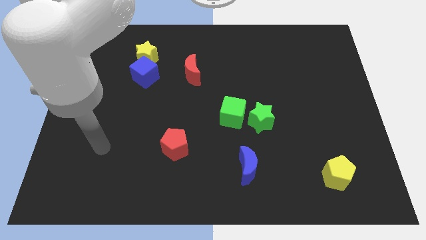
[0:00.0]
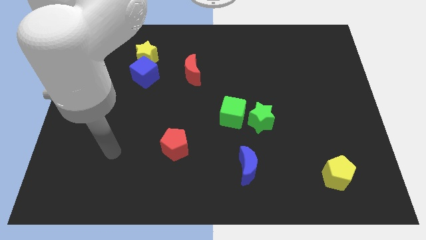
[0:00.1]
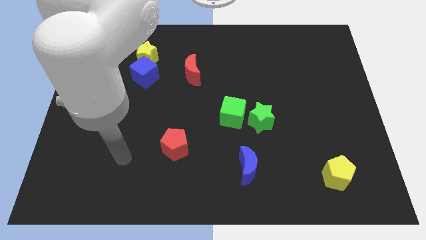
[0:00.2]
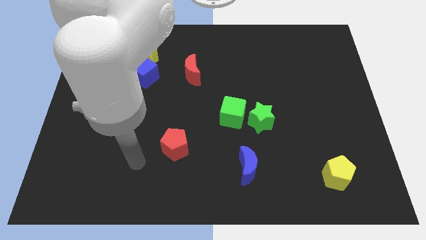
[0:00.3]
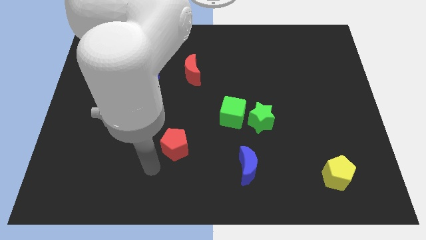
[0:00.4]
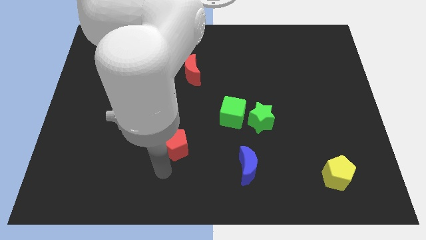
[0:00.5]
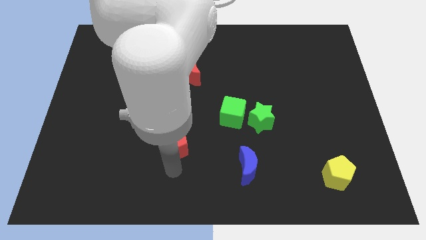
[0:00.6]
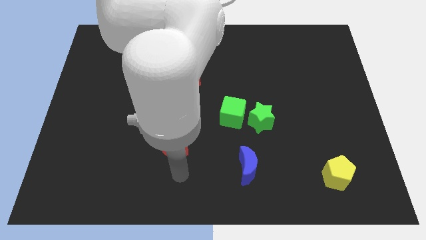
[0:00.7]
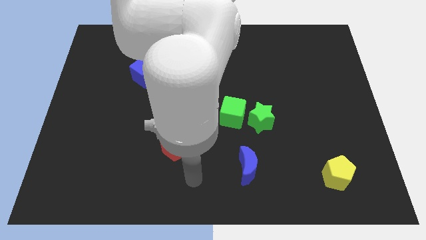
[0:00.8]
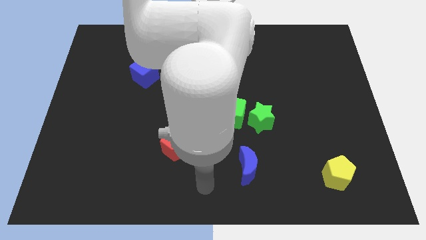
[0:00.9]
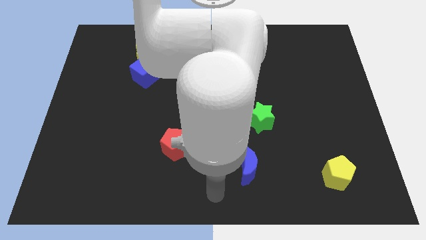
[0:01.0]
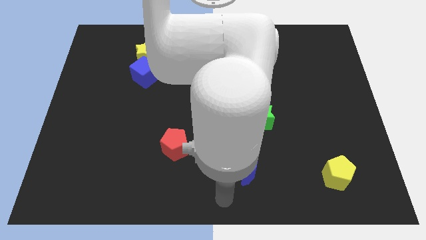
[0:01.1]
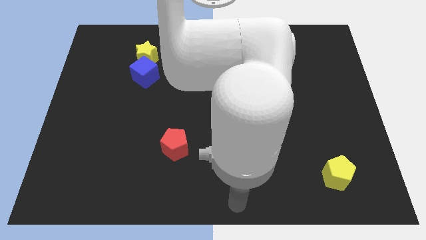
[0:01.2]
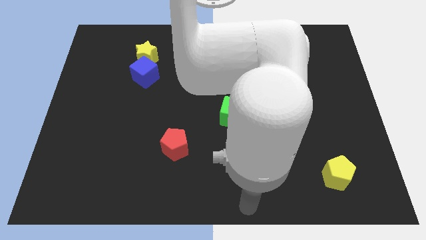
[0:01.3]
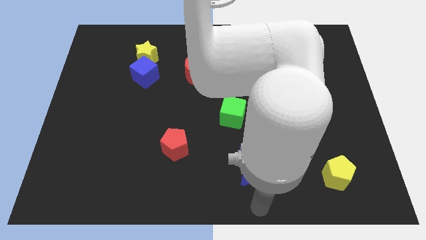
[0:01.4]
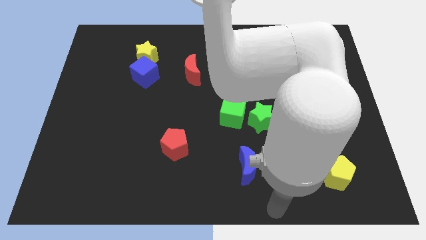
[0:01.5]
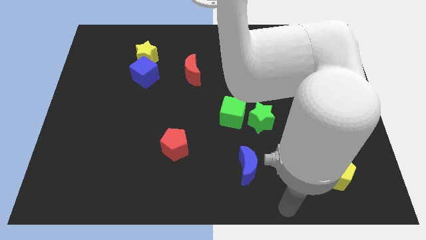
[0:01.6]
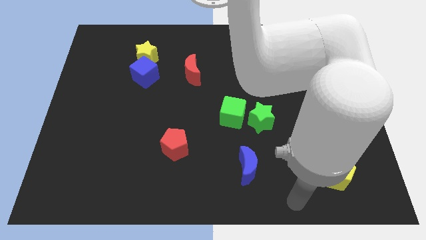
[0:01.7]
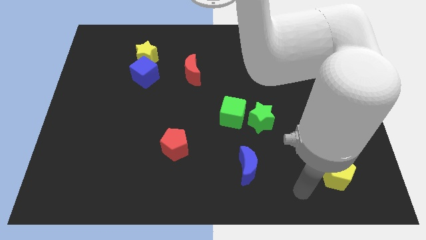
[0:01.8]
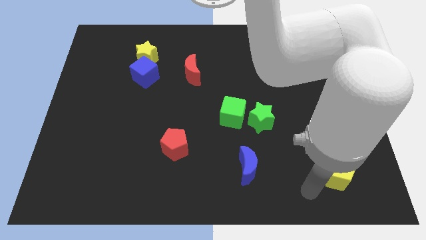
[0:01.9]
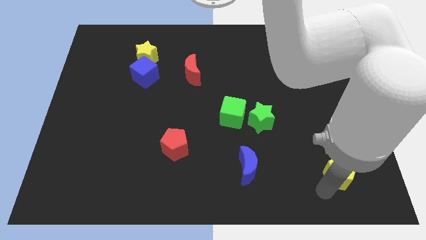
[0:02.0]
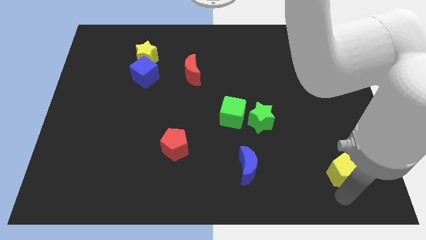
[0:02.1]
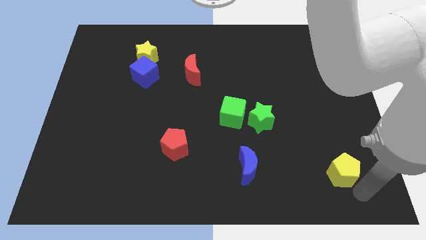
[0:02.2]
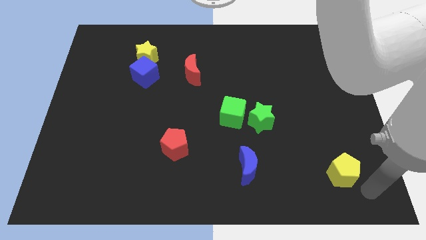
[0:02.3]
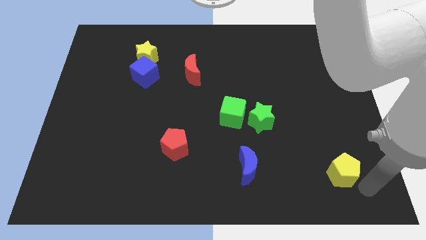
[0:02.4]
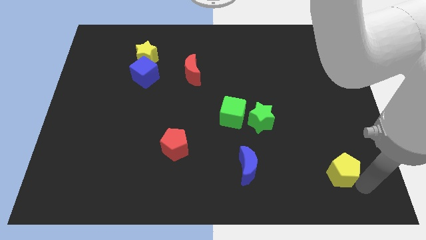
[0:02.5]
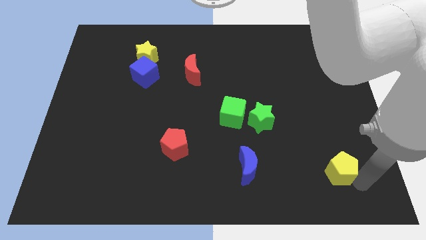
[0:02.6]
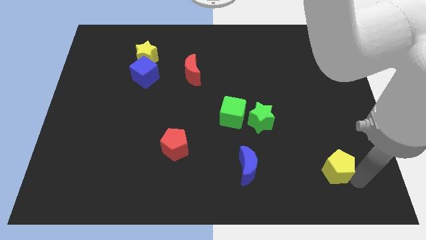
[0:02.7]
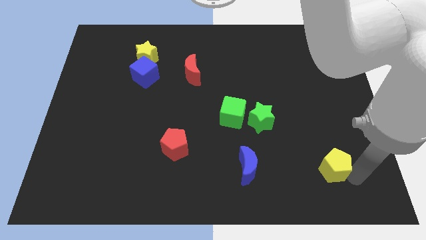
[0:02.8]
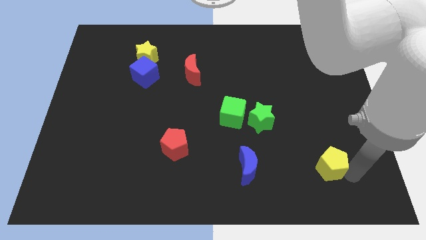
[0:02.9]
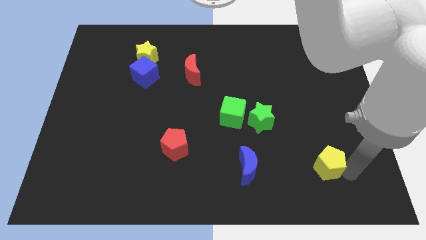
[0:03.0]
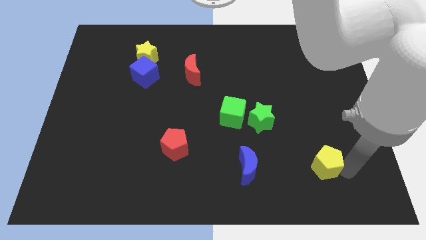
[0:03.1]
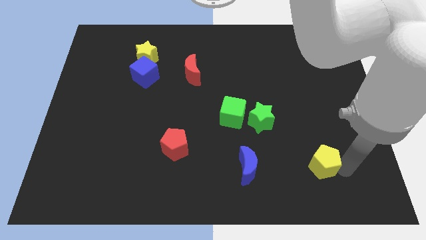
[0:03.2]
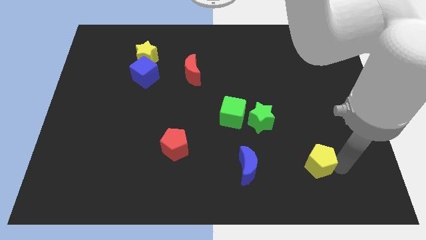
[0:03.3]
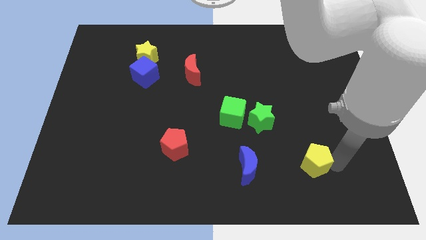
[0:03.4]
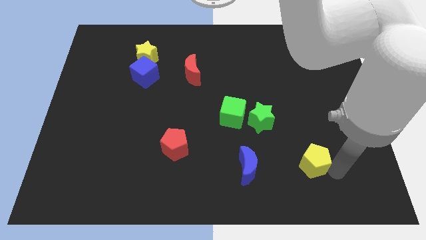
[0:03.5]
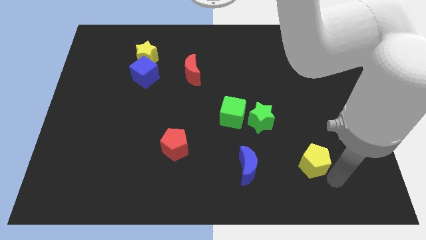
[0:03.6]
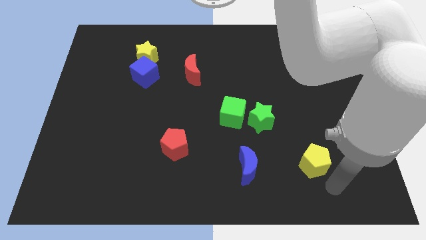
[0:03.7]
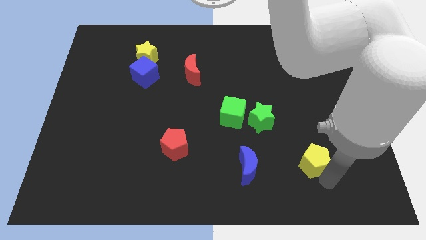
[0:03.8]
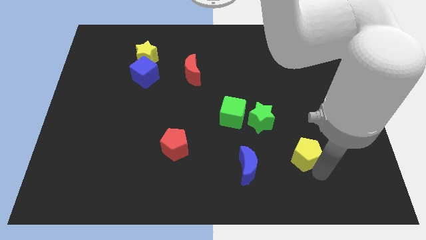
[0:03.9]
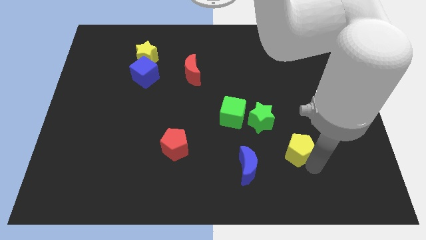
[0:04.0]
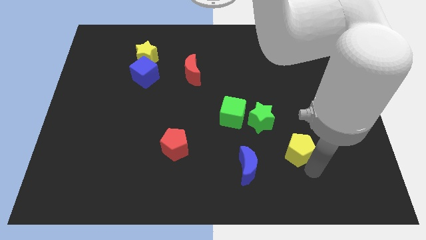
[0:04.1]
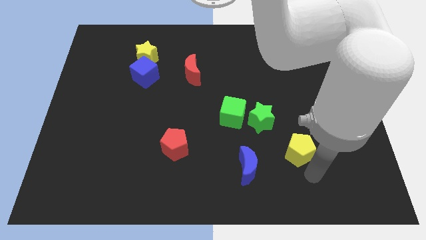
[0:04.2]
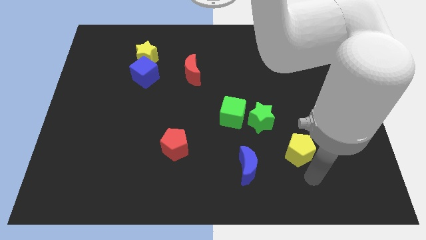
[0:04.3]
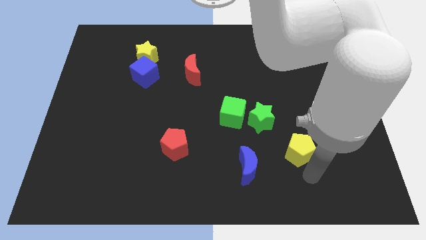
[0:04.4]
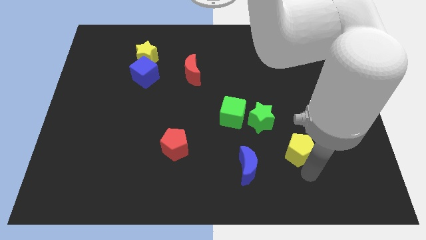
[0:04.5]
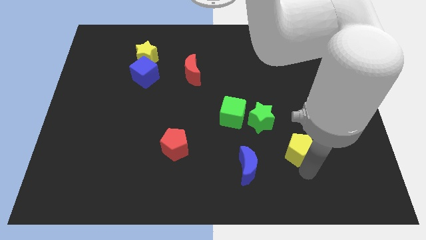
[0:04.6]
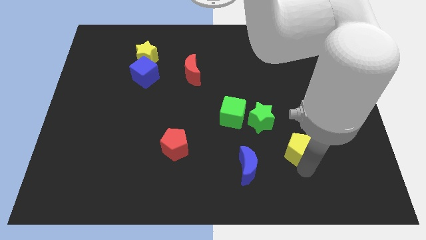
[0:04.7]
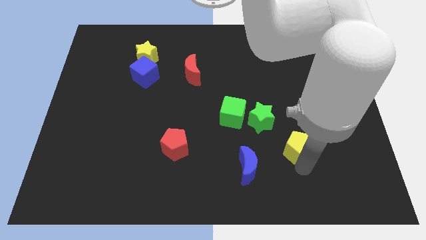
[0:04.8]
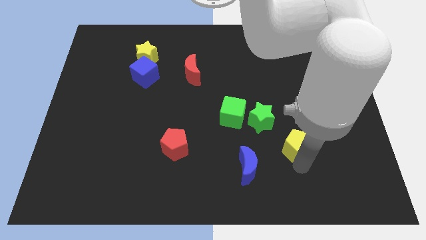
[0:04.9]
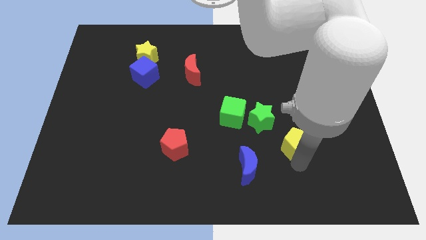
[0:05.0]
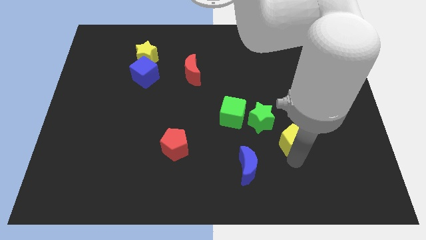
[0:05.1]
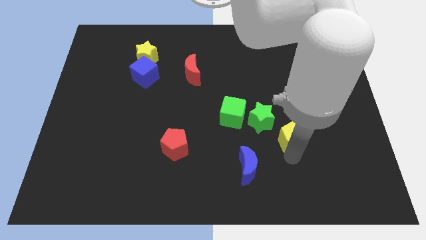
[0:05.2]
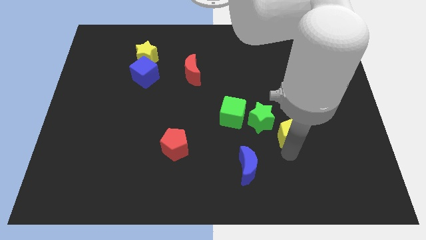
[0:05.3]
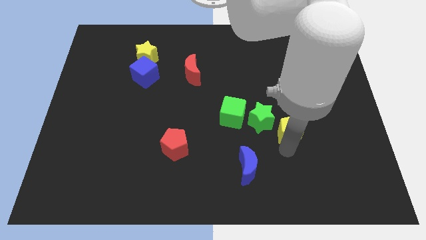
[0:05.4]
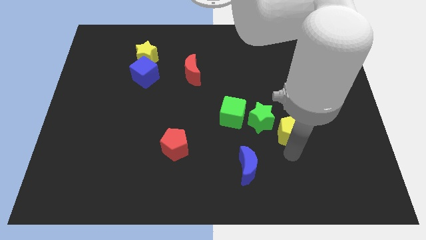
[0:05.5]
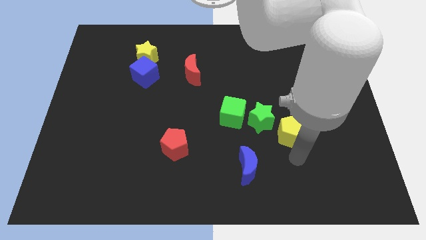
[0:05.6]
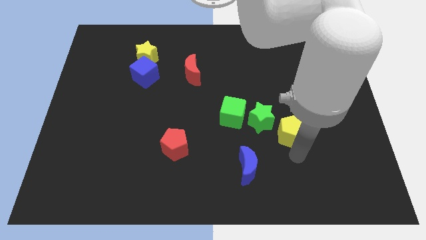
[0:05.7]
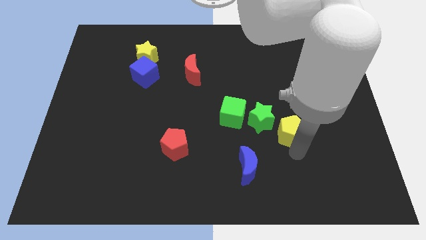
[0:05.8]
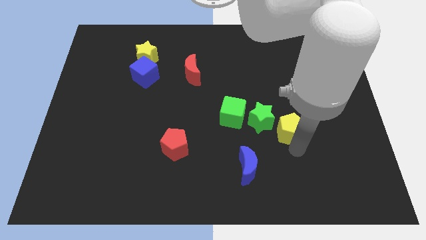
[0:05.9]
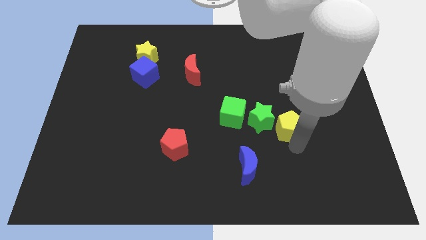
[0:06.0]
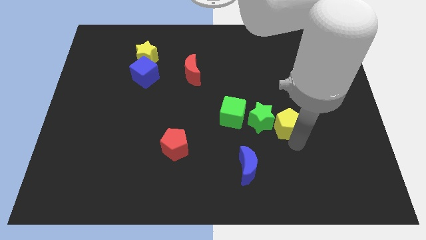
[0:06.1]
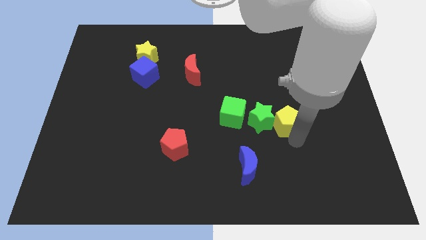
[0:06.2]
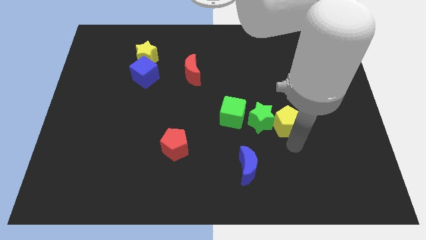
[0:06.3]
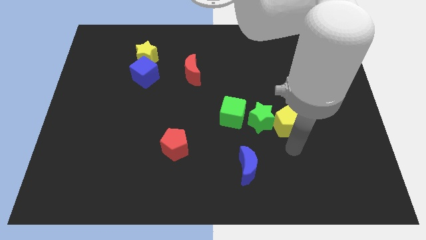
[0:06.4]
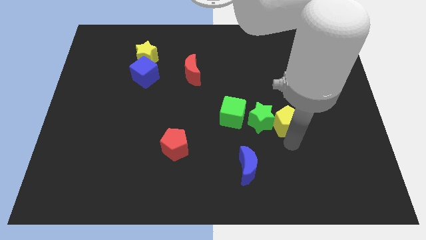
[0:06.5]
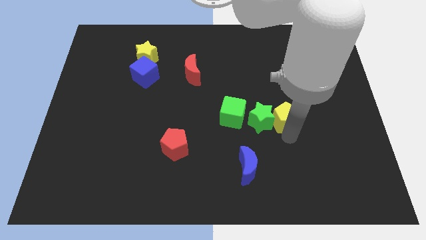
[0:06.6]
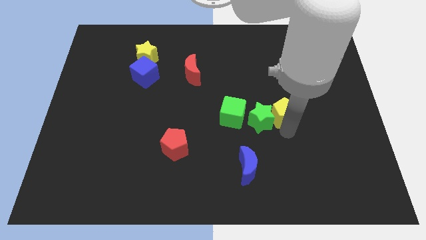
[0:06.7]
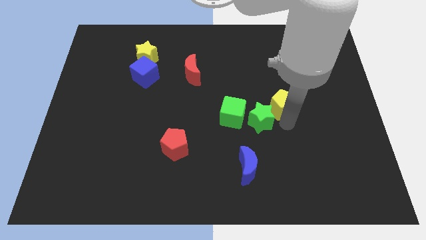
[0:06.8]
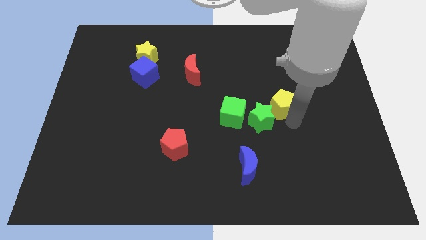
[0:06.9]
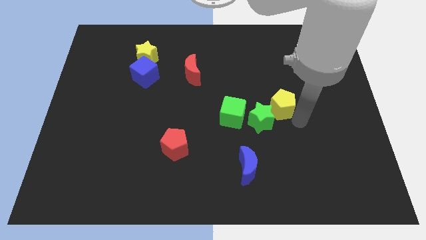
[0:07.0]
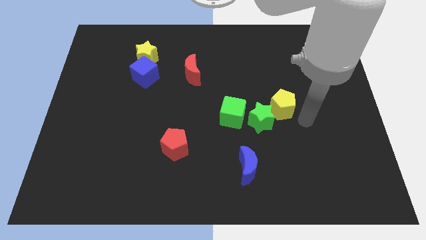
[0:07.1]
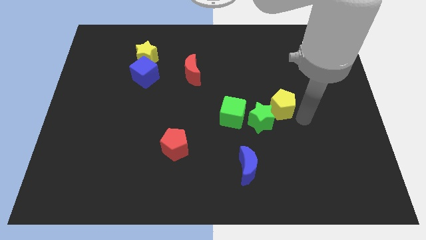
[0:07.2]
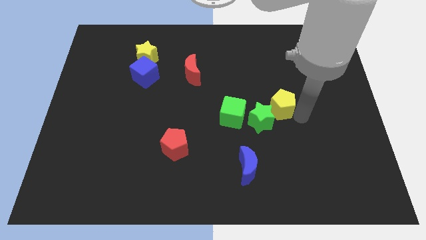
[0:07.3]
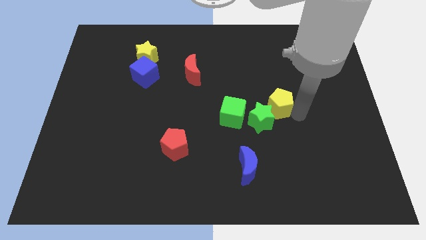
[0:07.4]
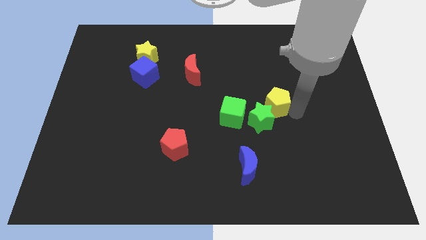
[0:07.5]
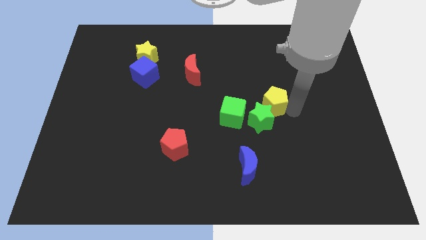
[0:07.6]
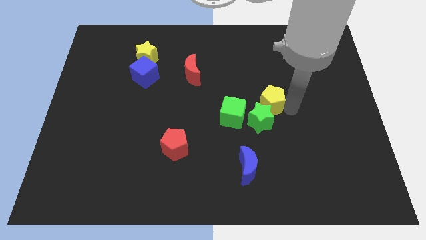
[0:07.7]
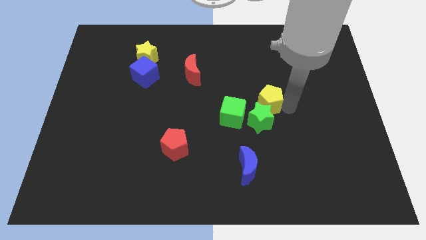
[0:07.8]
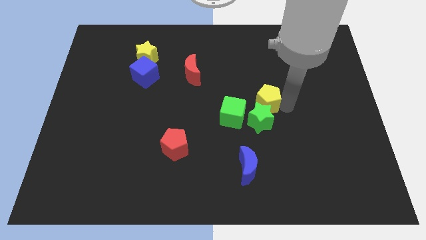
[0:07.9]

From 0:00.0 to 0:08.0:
move the yellow pentagon to the center
